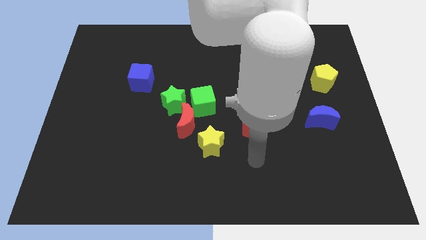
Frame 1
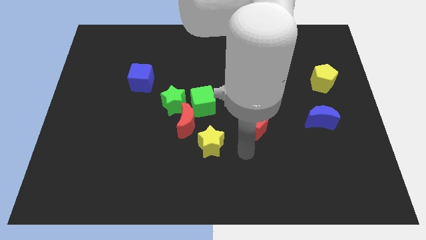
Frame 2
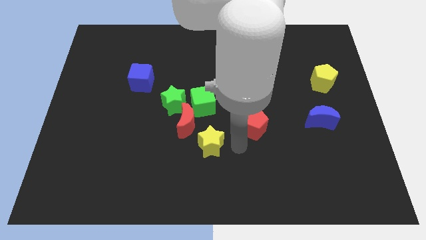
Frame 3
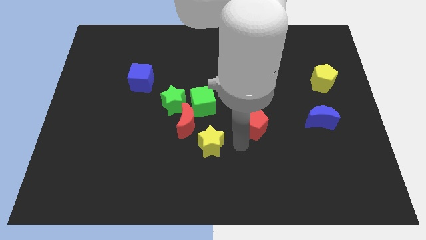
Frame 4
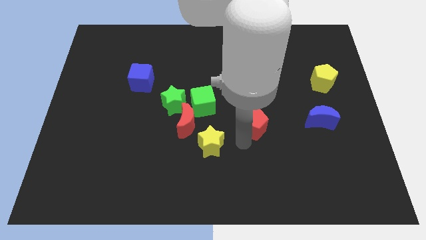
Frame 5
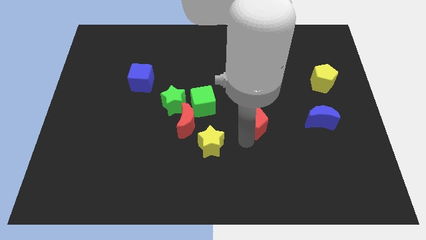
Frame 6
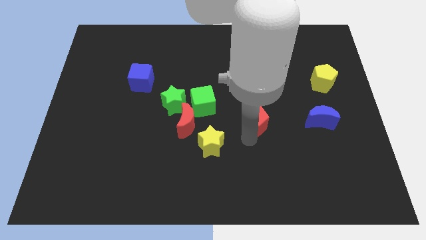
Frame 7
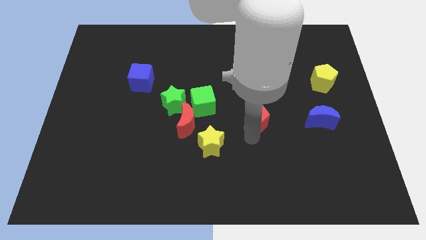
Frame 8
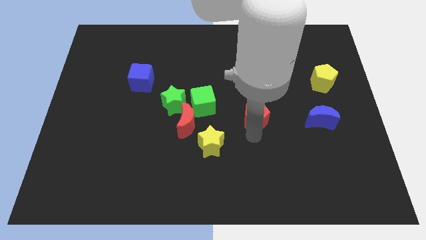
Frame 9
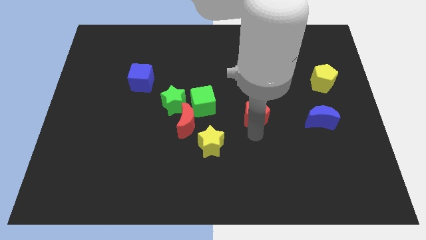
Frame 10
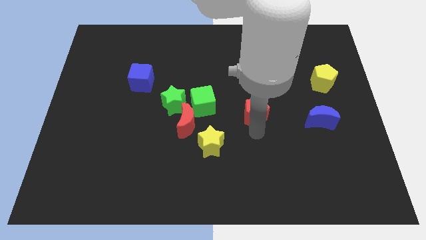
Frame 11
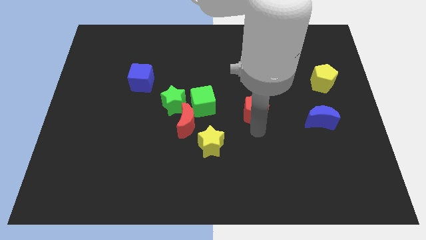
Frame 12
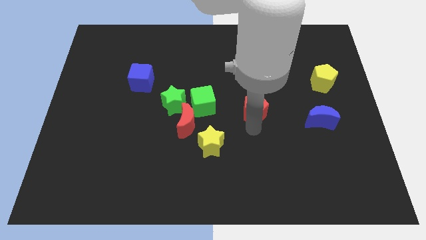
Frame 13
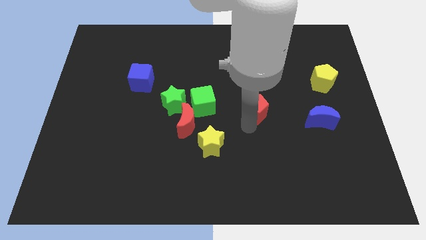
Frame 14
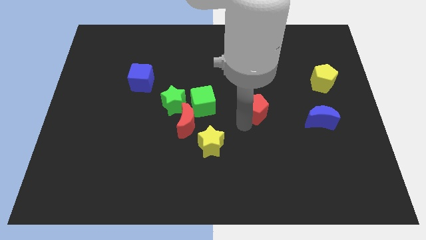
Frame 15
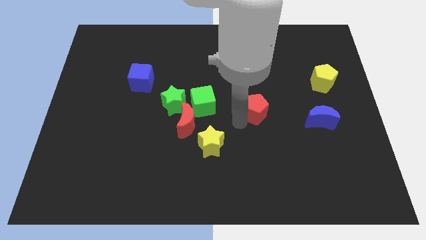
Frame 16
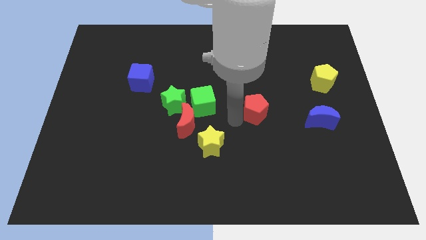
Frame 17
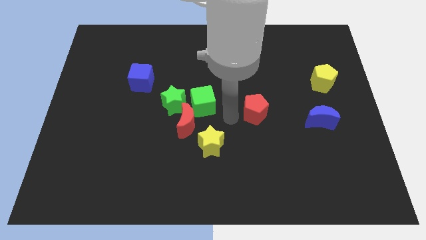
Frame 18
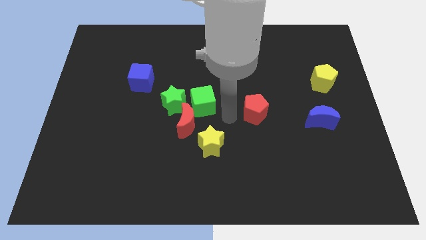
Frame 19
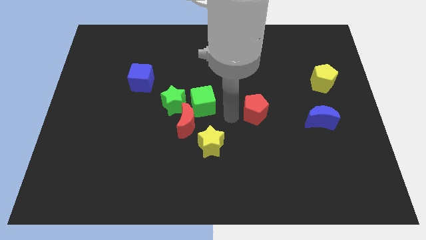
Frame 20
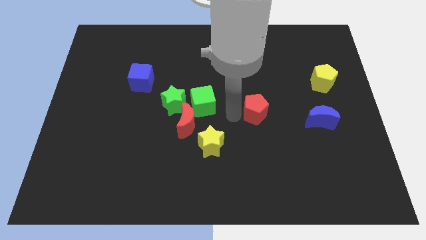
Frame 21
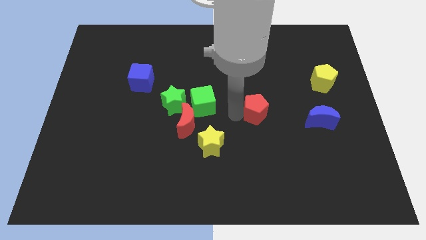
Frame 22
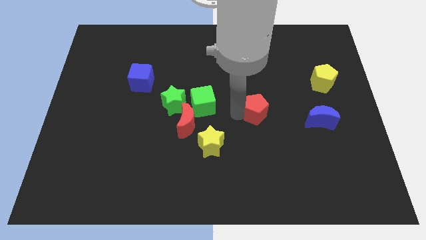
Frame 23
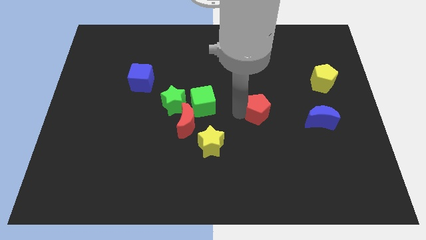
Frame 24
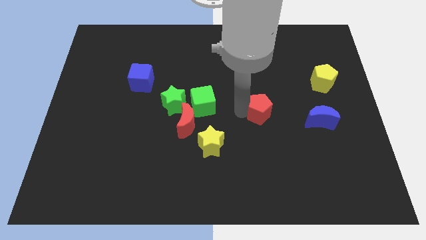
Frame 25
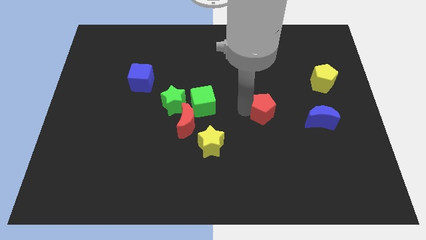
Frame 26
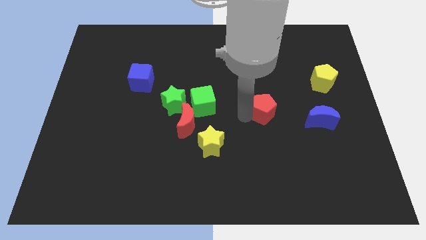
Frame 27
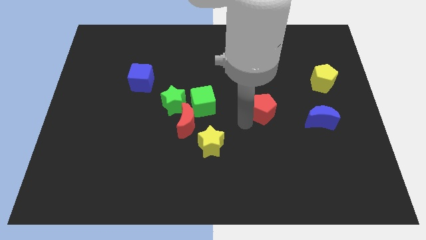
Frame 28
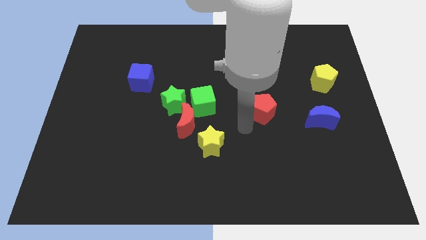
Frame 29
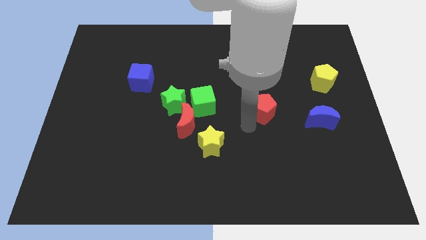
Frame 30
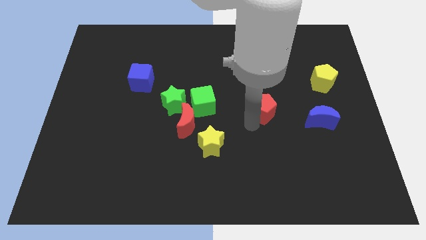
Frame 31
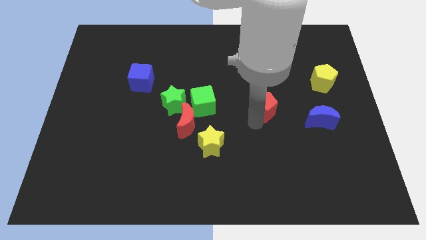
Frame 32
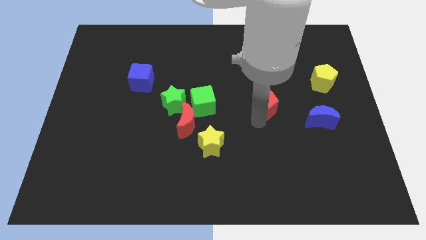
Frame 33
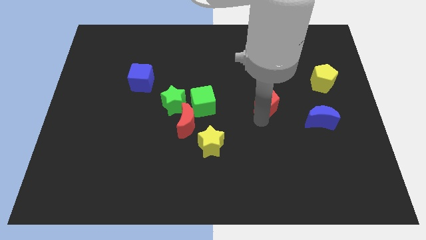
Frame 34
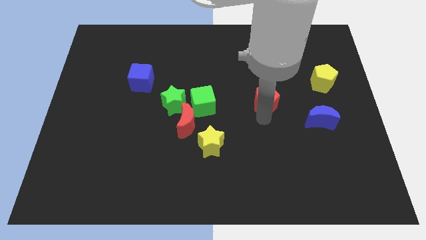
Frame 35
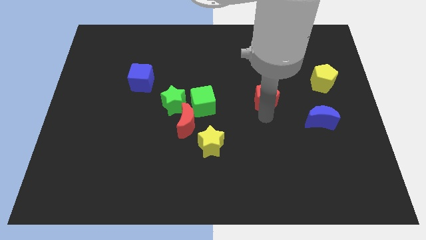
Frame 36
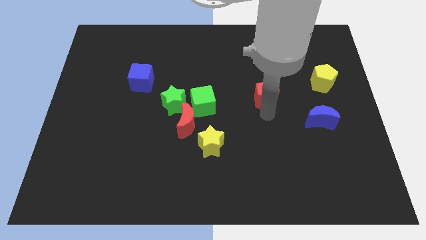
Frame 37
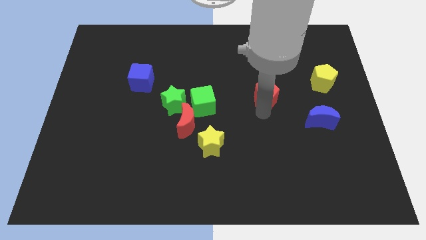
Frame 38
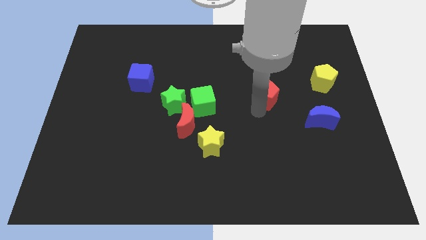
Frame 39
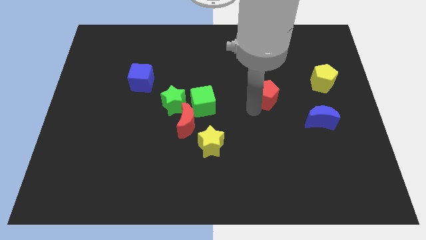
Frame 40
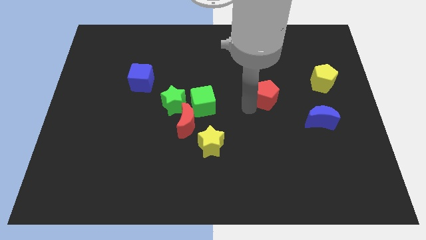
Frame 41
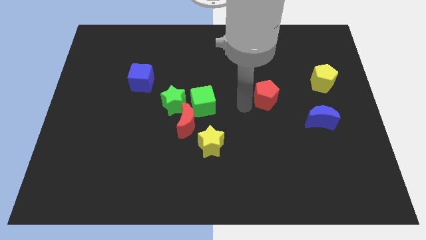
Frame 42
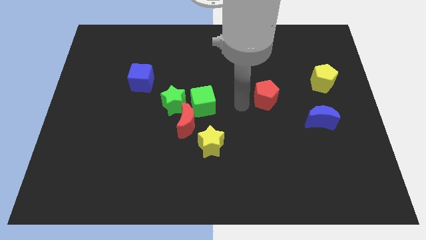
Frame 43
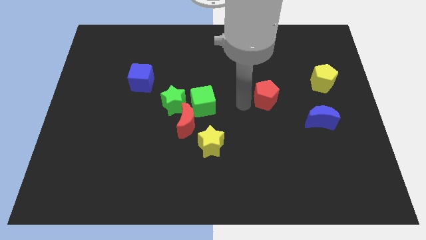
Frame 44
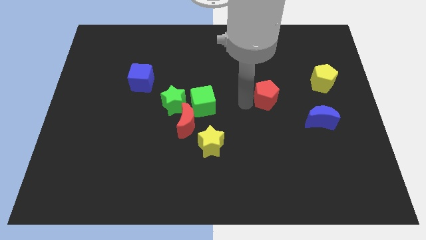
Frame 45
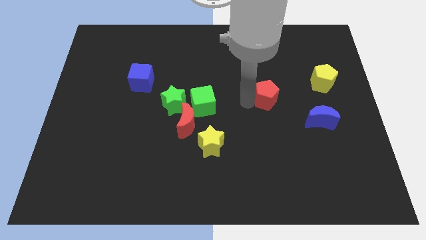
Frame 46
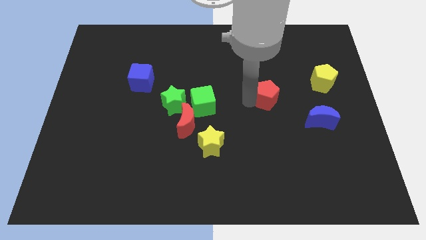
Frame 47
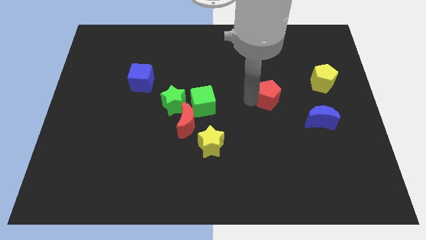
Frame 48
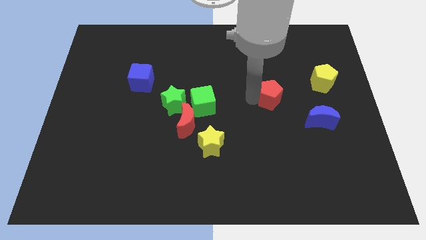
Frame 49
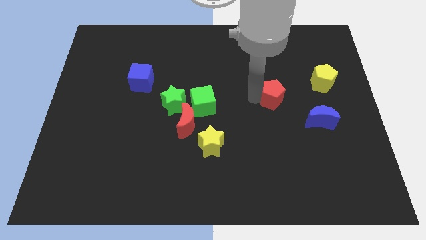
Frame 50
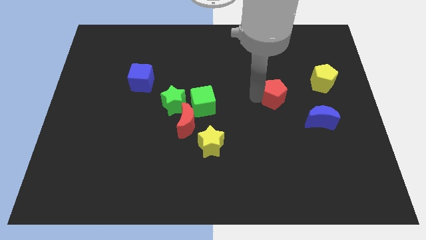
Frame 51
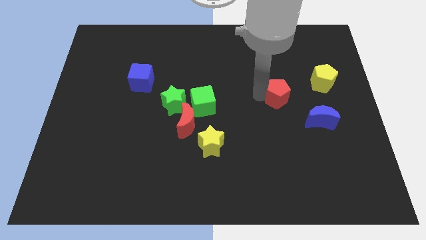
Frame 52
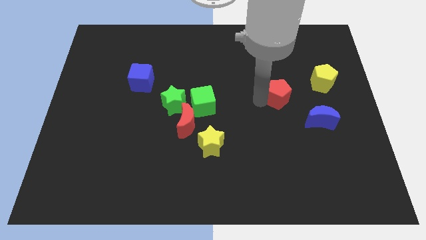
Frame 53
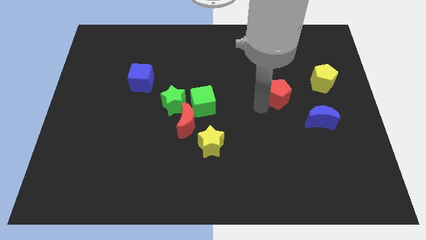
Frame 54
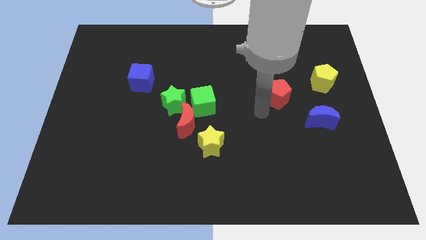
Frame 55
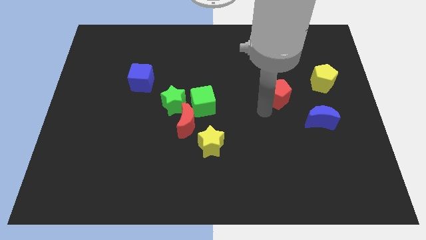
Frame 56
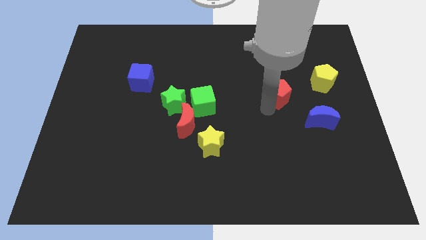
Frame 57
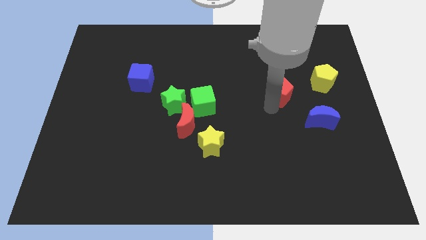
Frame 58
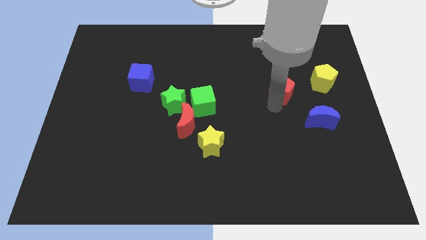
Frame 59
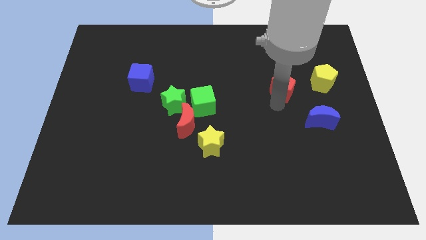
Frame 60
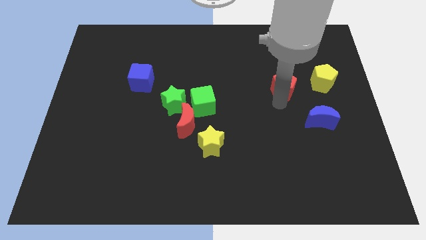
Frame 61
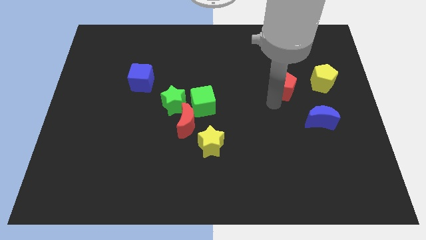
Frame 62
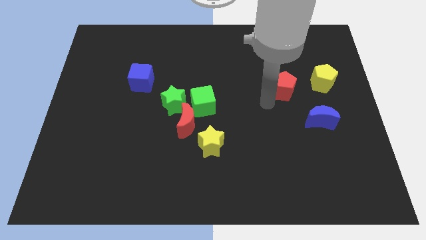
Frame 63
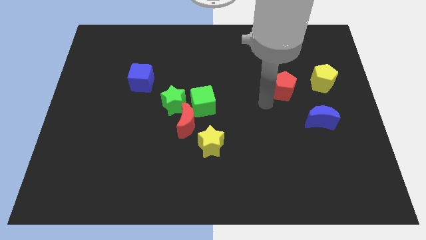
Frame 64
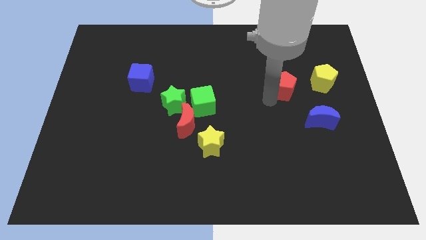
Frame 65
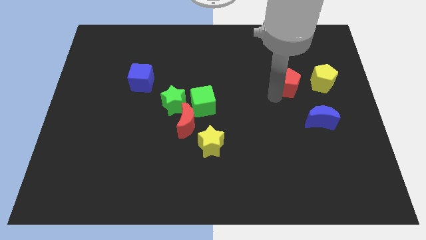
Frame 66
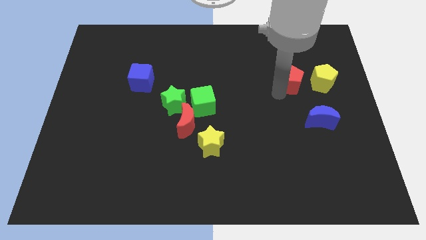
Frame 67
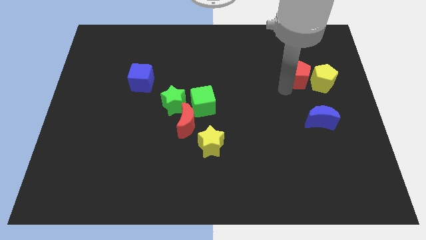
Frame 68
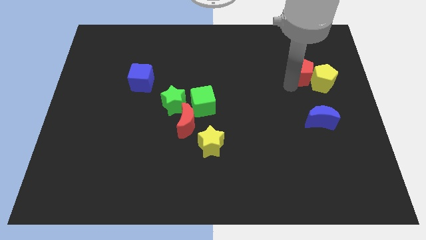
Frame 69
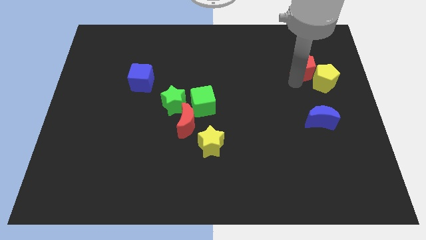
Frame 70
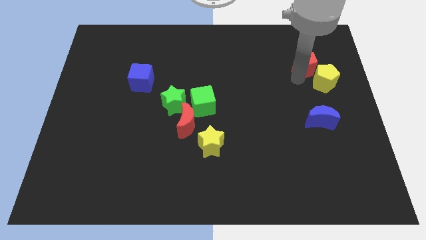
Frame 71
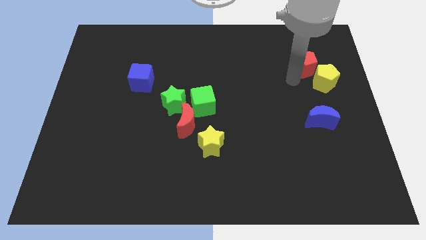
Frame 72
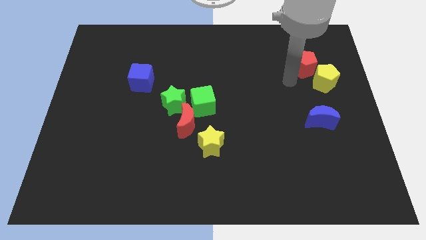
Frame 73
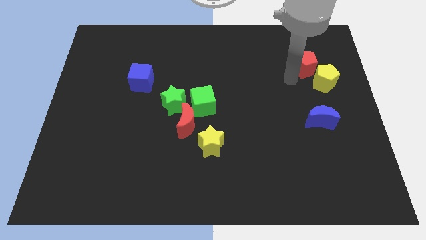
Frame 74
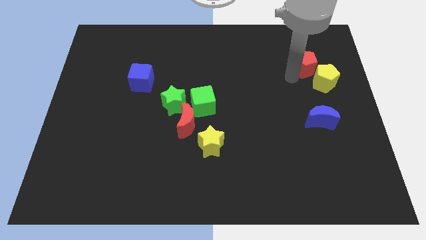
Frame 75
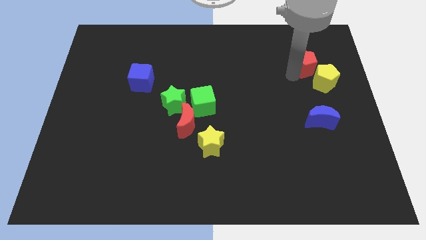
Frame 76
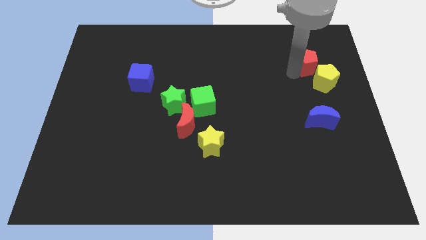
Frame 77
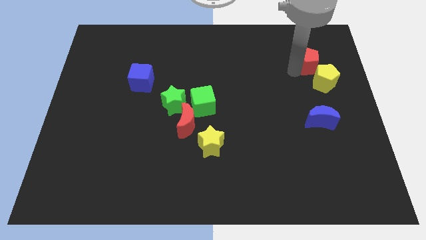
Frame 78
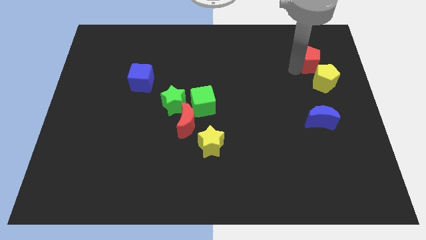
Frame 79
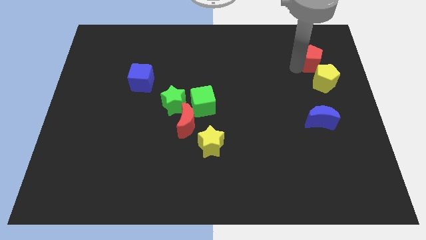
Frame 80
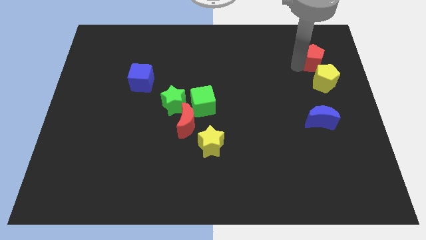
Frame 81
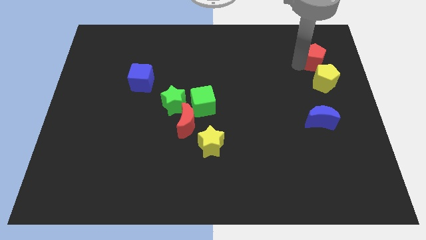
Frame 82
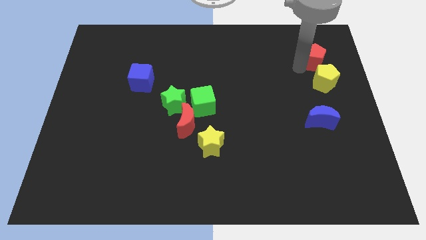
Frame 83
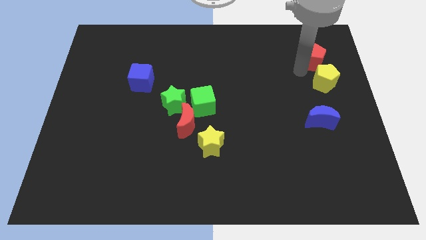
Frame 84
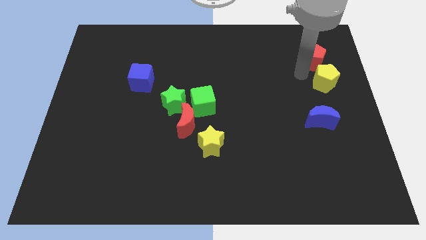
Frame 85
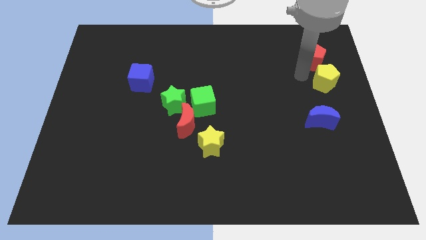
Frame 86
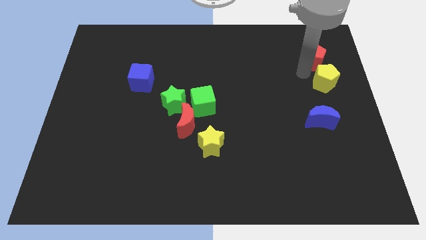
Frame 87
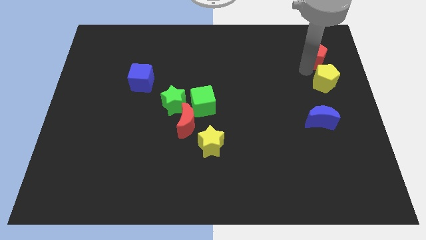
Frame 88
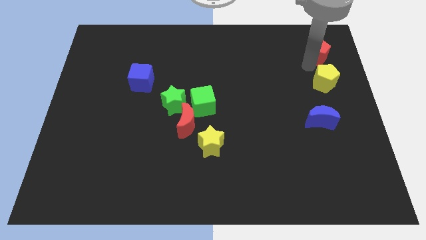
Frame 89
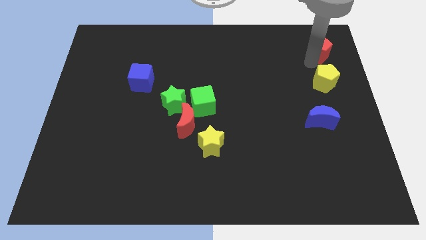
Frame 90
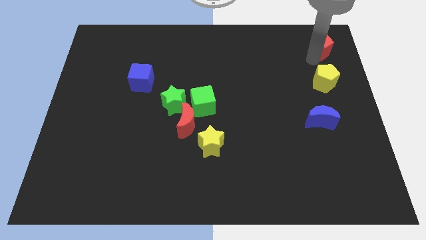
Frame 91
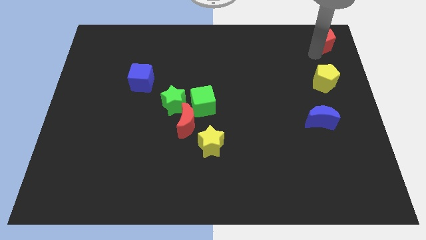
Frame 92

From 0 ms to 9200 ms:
slide the red pentagon to the top right corner
